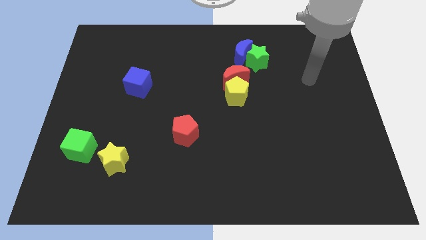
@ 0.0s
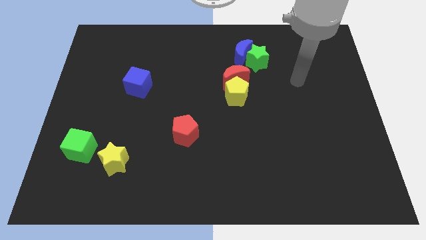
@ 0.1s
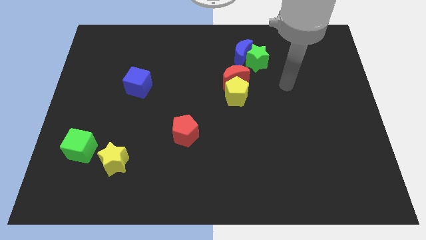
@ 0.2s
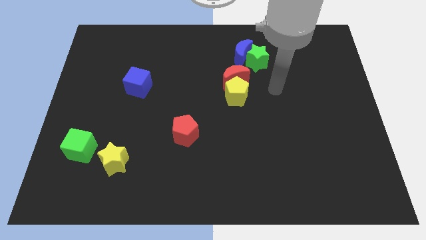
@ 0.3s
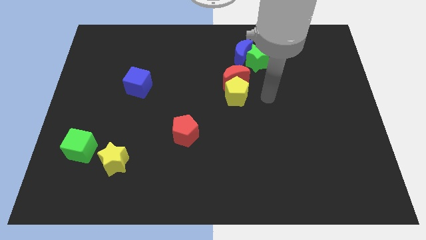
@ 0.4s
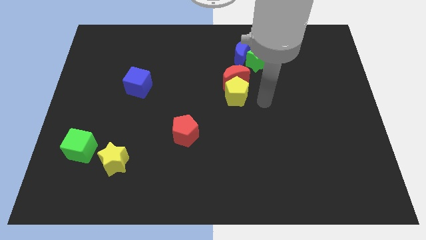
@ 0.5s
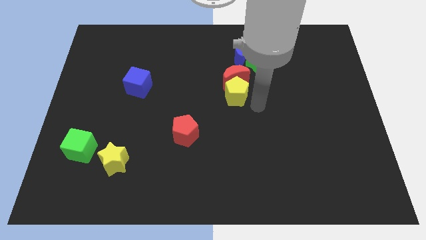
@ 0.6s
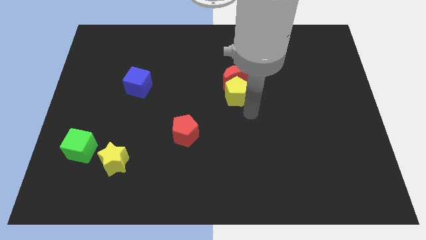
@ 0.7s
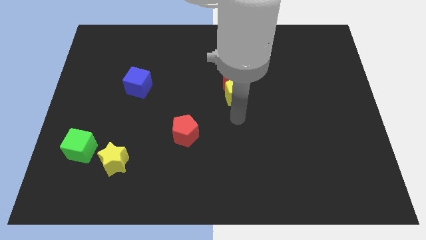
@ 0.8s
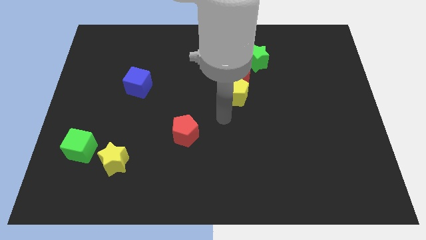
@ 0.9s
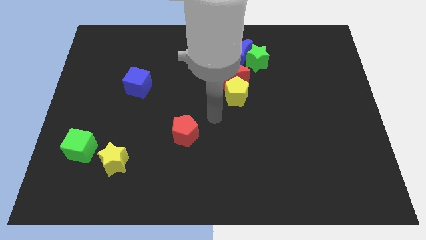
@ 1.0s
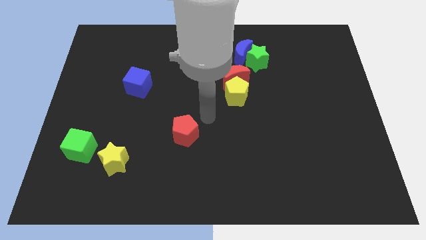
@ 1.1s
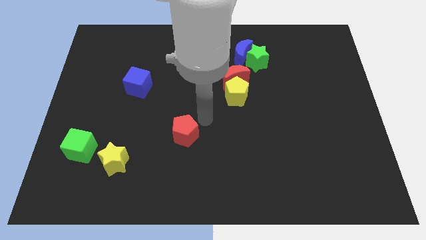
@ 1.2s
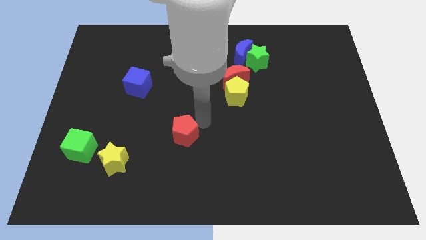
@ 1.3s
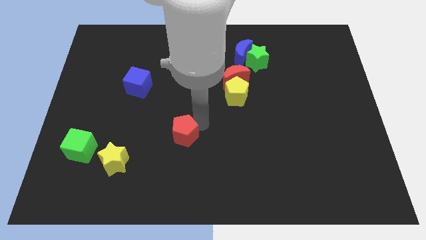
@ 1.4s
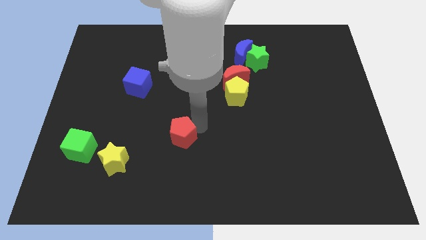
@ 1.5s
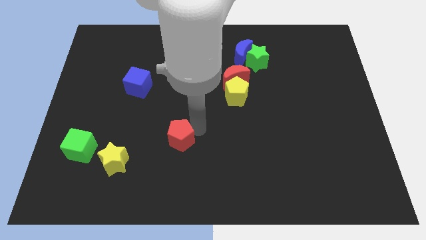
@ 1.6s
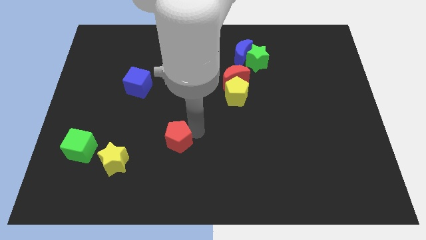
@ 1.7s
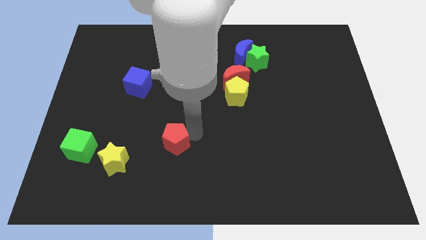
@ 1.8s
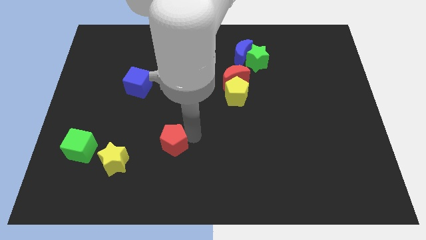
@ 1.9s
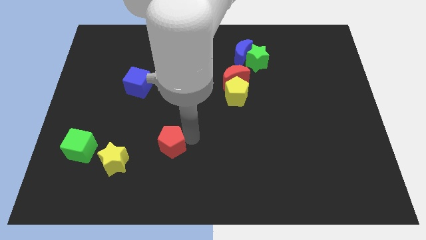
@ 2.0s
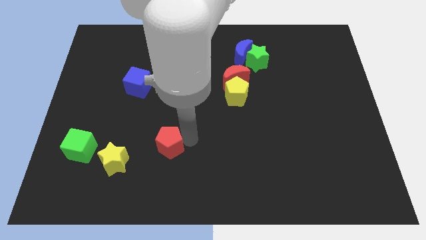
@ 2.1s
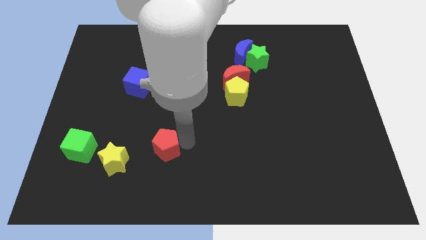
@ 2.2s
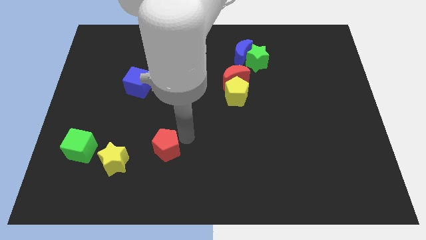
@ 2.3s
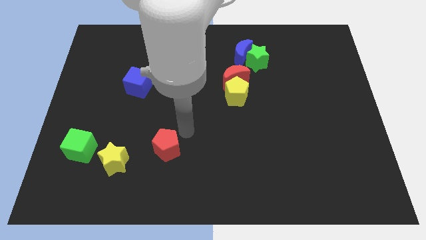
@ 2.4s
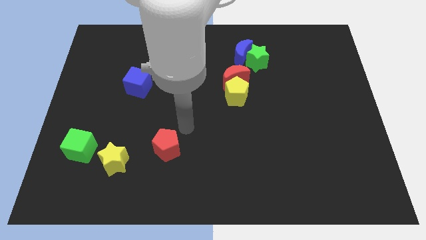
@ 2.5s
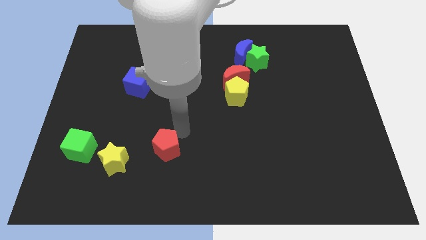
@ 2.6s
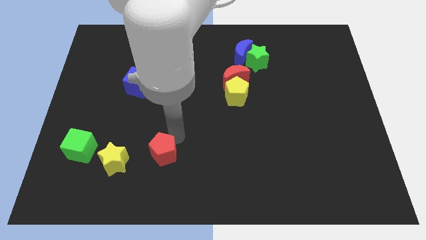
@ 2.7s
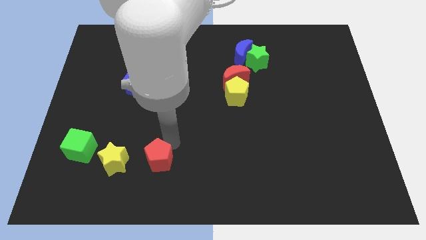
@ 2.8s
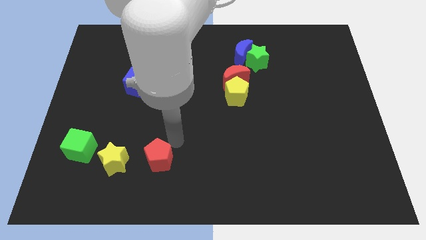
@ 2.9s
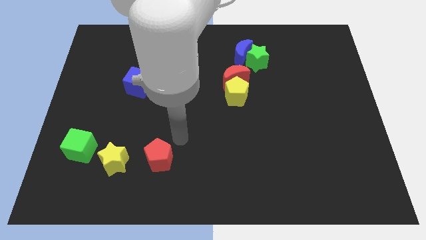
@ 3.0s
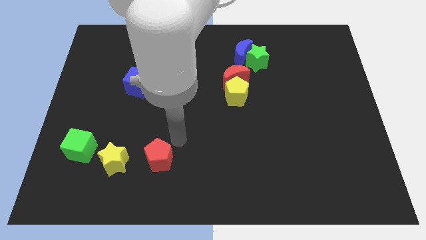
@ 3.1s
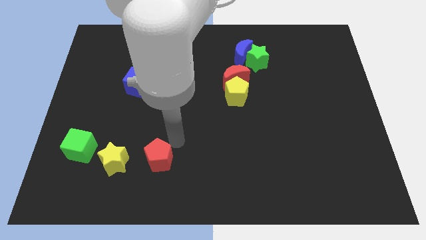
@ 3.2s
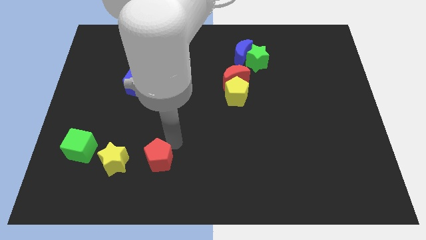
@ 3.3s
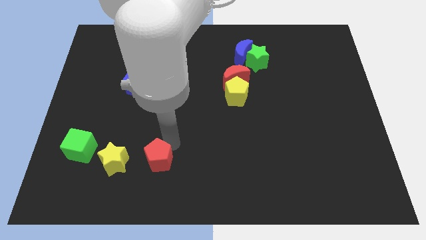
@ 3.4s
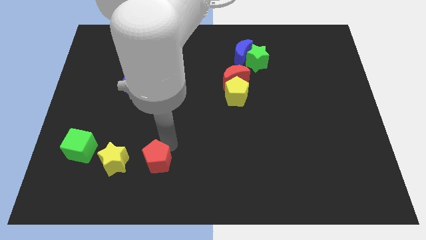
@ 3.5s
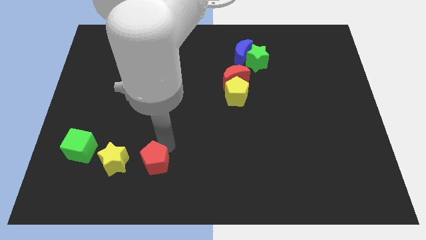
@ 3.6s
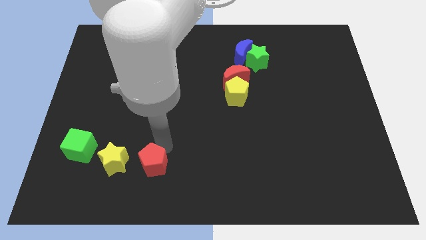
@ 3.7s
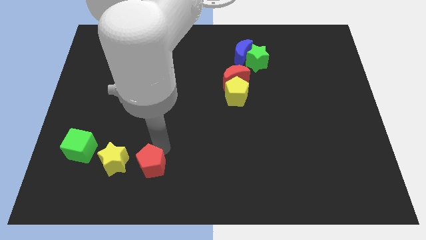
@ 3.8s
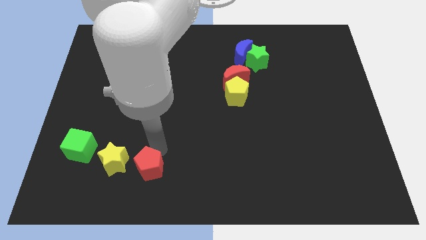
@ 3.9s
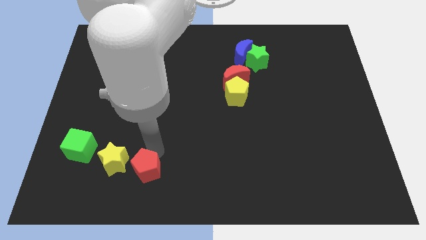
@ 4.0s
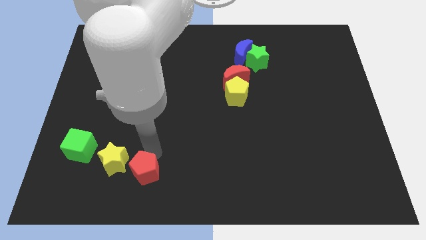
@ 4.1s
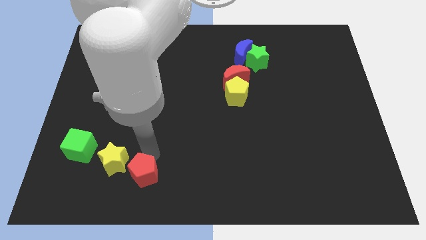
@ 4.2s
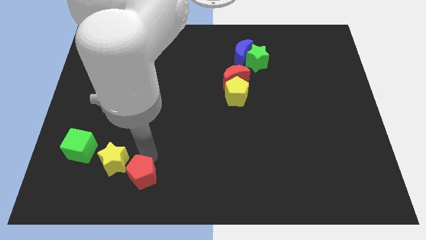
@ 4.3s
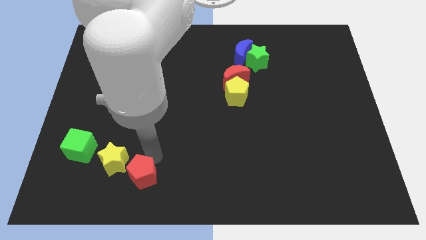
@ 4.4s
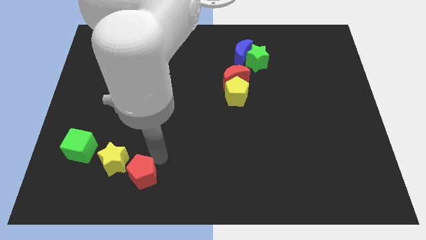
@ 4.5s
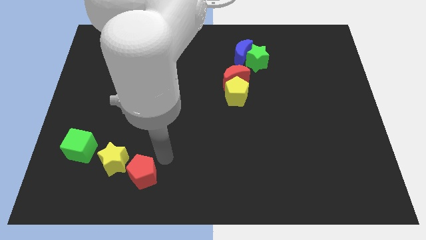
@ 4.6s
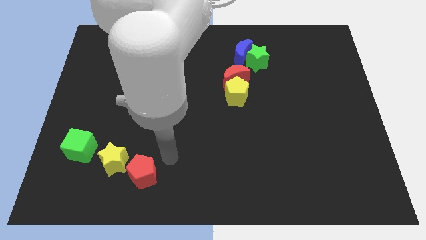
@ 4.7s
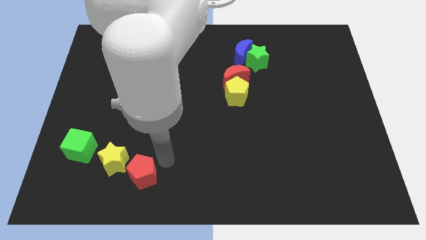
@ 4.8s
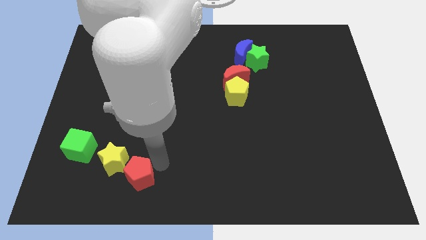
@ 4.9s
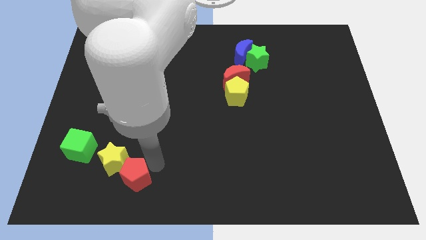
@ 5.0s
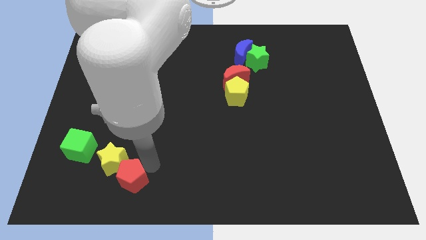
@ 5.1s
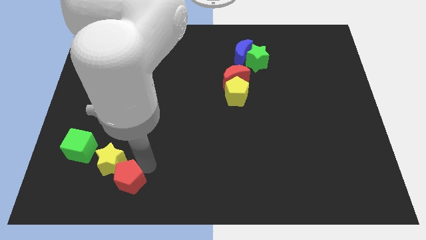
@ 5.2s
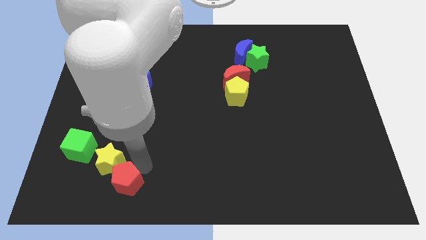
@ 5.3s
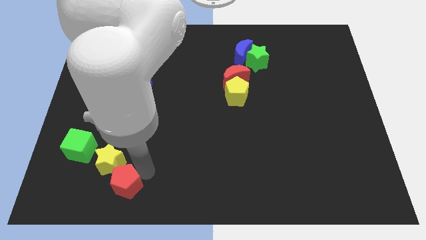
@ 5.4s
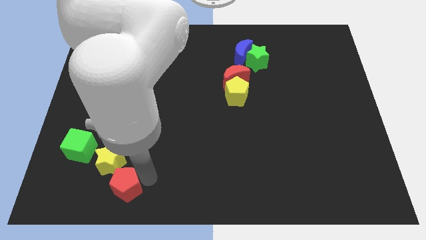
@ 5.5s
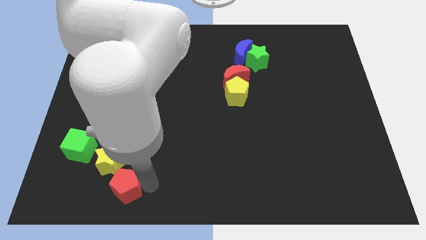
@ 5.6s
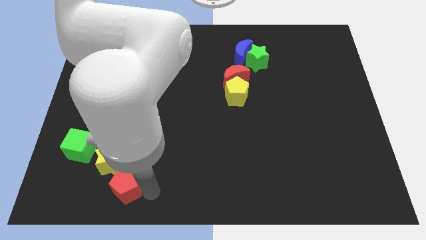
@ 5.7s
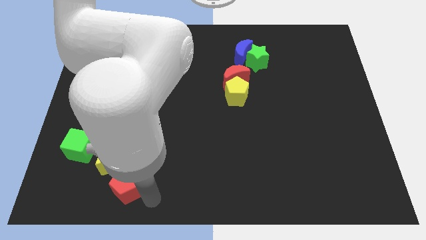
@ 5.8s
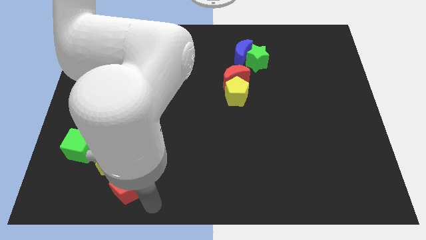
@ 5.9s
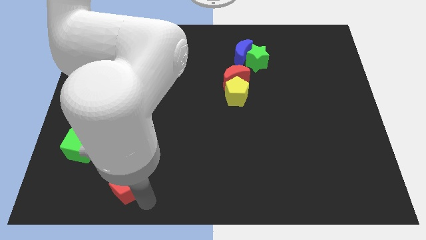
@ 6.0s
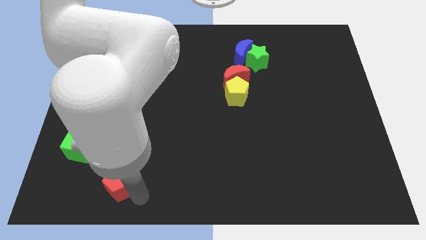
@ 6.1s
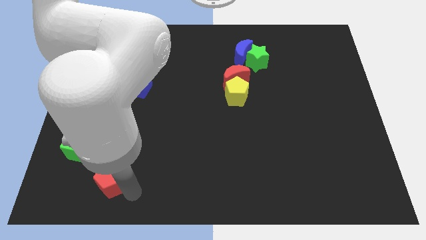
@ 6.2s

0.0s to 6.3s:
move the red pentagon to the bottom right side of the green cube

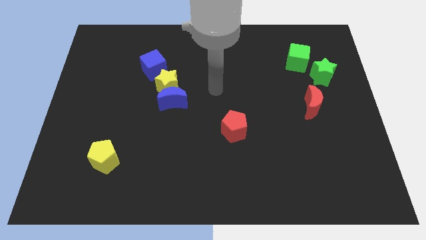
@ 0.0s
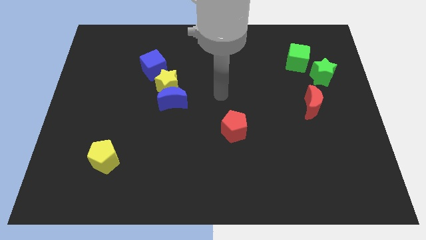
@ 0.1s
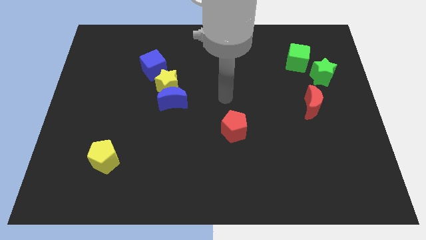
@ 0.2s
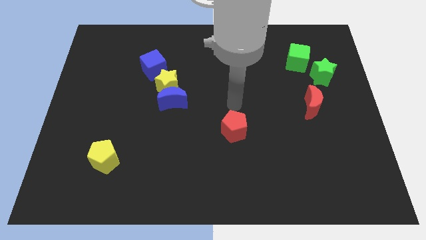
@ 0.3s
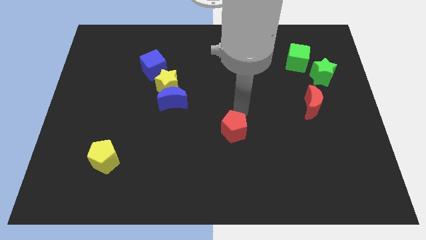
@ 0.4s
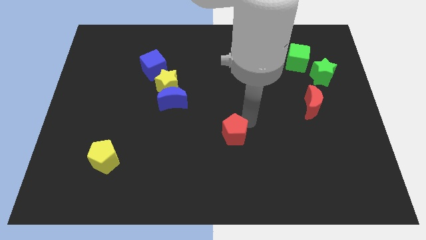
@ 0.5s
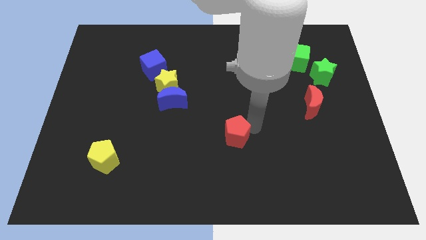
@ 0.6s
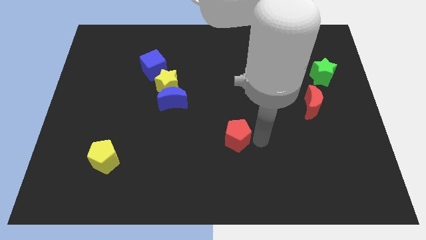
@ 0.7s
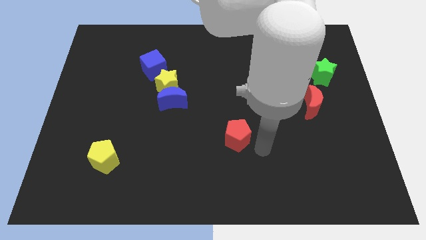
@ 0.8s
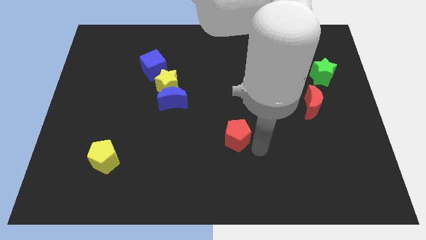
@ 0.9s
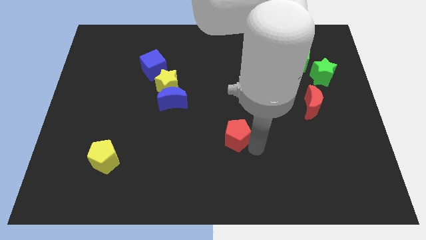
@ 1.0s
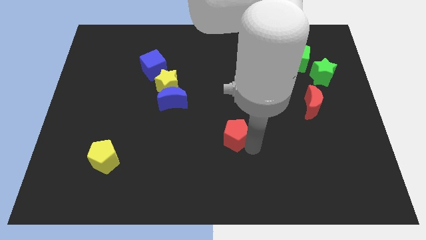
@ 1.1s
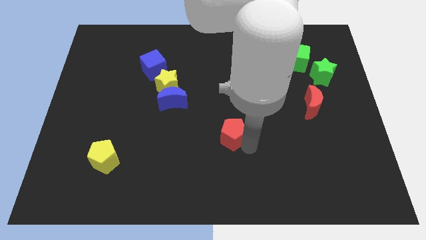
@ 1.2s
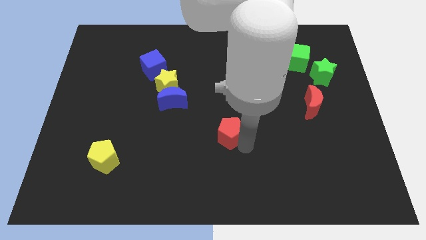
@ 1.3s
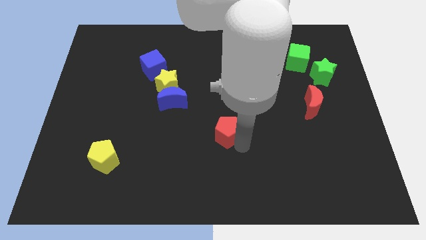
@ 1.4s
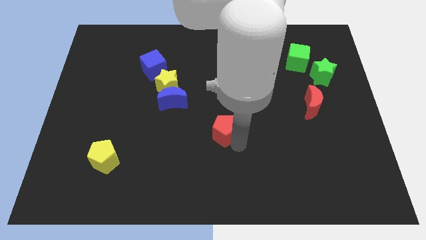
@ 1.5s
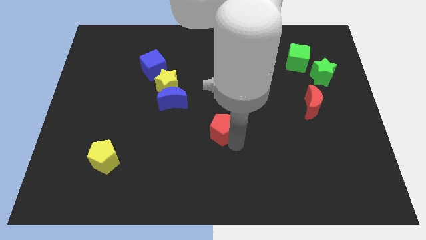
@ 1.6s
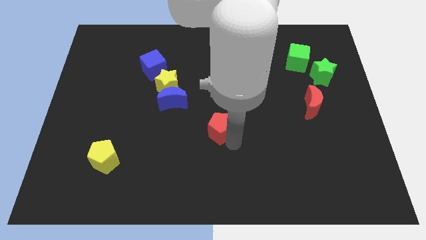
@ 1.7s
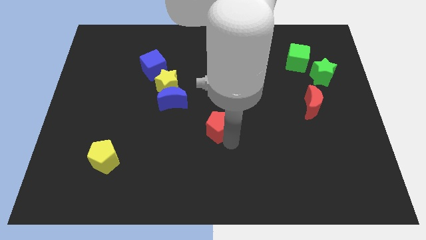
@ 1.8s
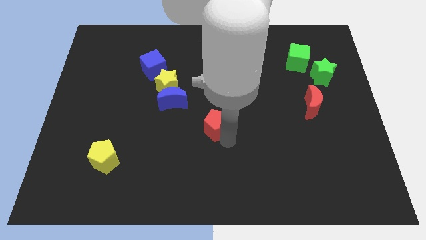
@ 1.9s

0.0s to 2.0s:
move the red pentagon to the bottom right of the blue moon
